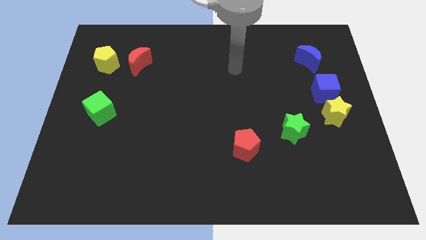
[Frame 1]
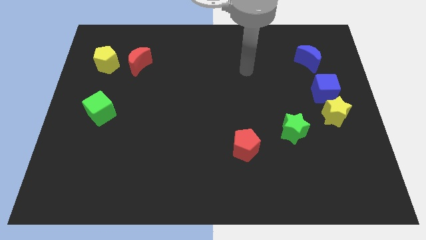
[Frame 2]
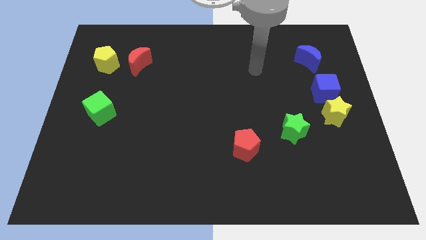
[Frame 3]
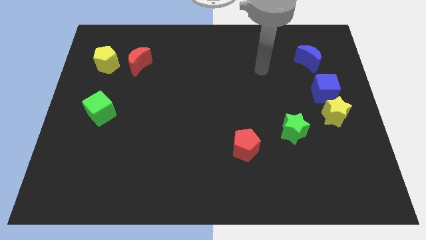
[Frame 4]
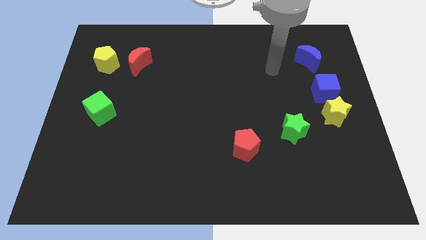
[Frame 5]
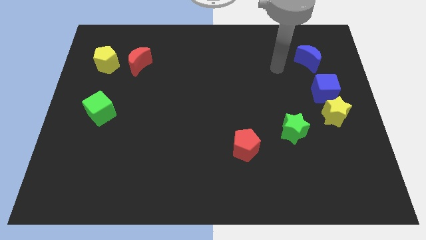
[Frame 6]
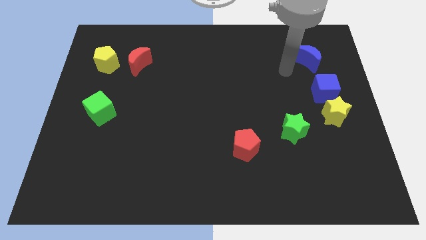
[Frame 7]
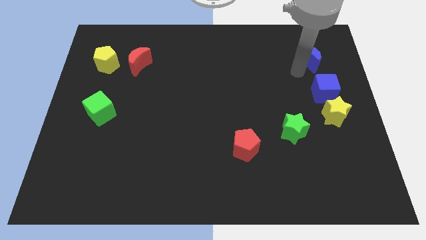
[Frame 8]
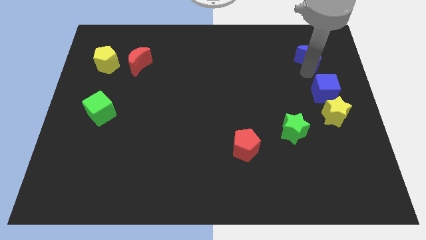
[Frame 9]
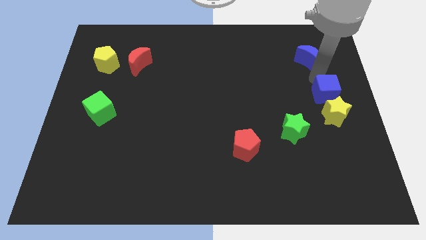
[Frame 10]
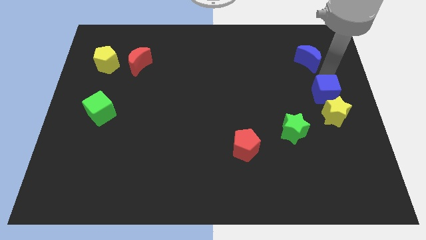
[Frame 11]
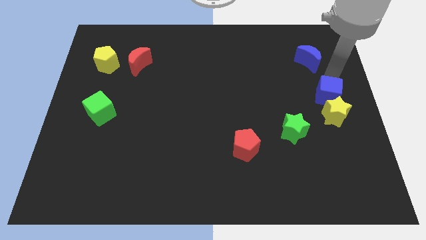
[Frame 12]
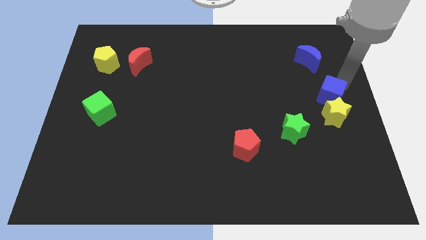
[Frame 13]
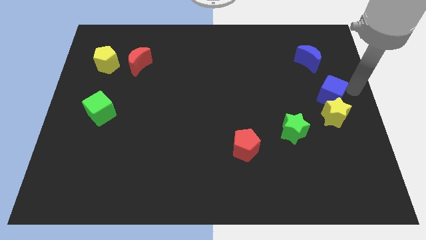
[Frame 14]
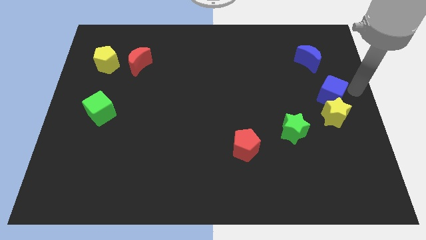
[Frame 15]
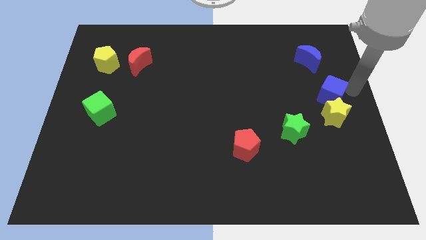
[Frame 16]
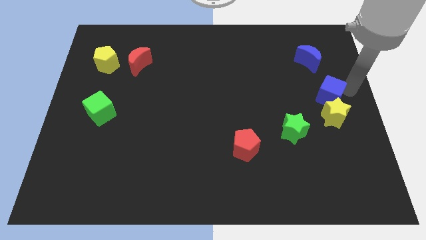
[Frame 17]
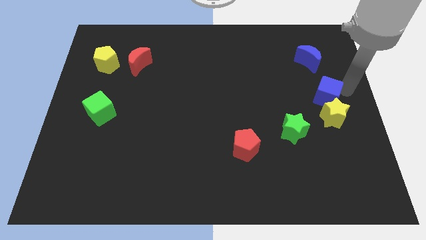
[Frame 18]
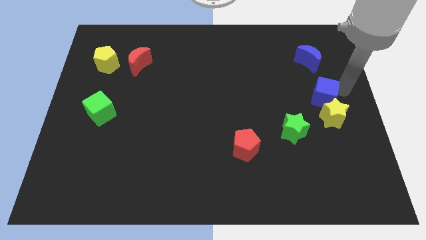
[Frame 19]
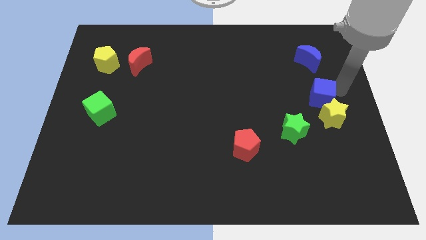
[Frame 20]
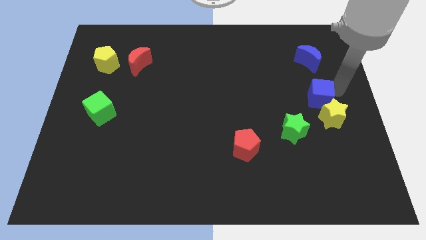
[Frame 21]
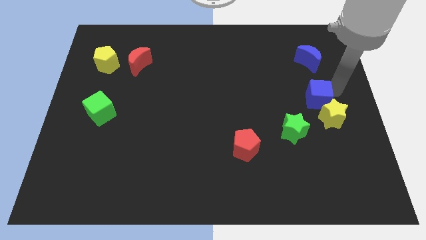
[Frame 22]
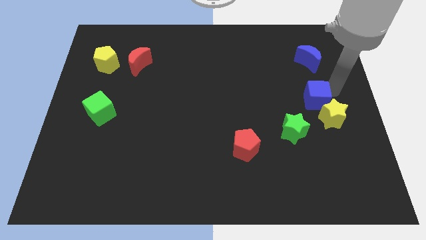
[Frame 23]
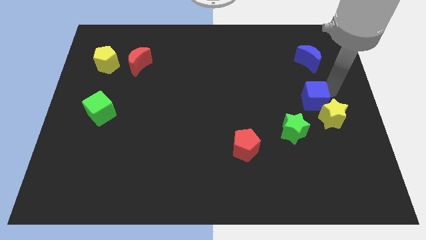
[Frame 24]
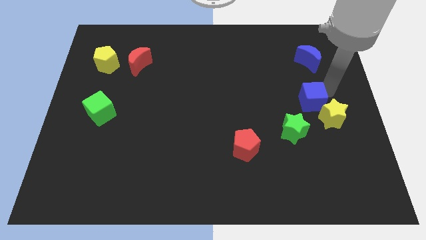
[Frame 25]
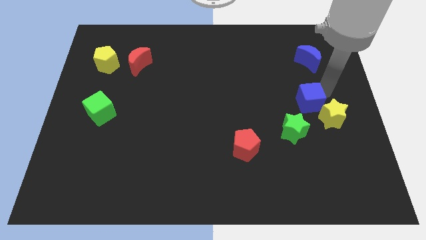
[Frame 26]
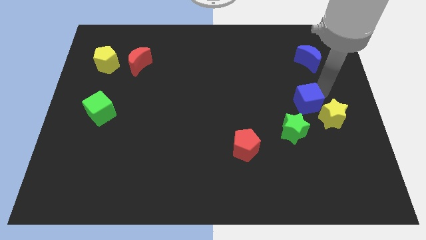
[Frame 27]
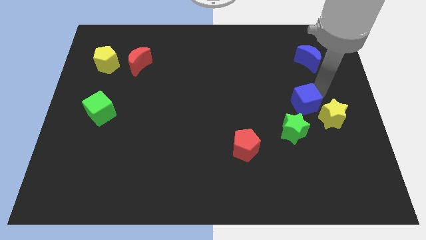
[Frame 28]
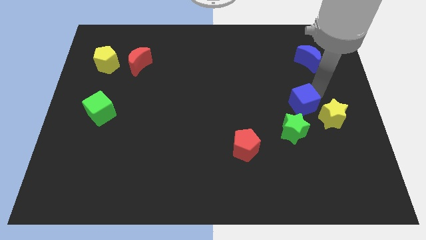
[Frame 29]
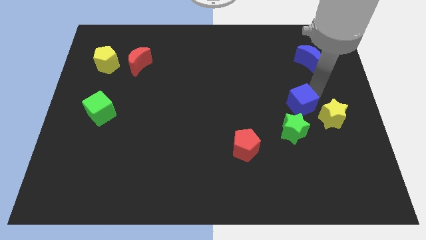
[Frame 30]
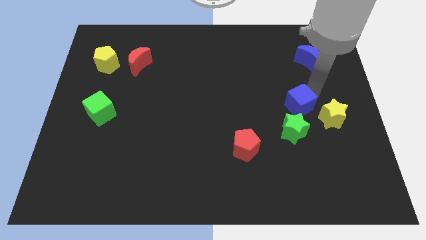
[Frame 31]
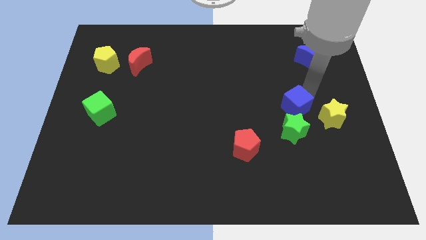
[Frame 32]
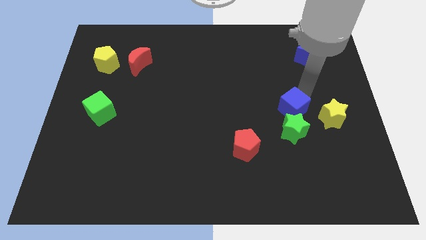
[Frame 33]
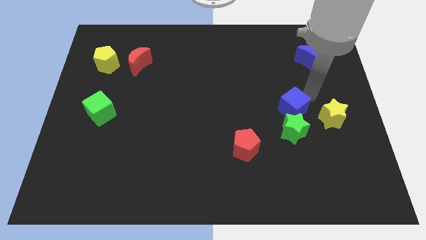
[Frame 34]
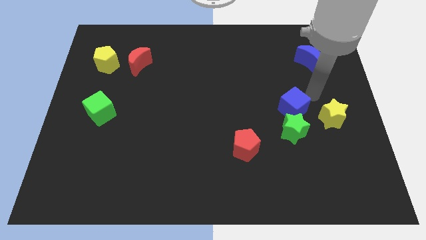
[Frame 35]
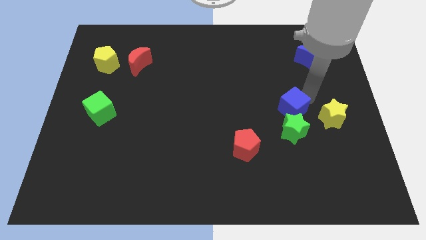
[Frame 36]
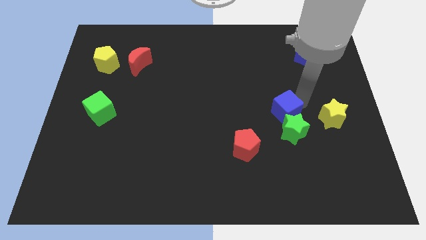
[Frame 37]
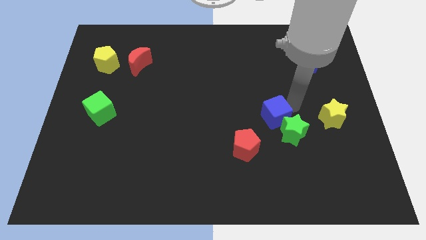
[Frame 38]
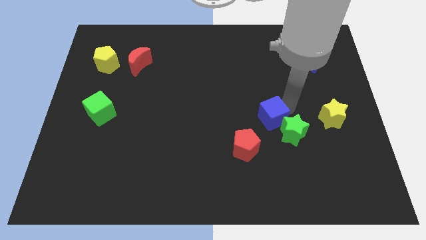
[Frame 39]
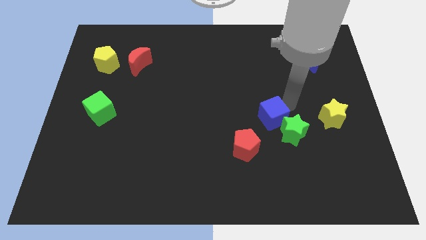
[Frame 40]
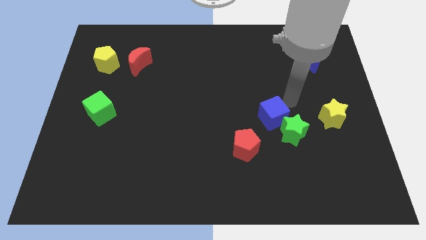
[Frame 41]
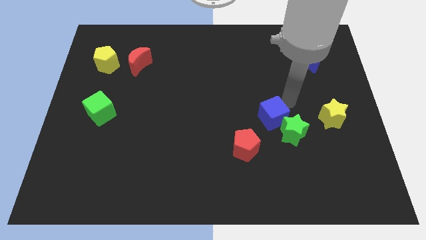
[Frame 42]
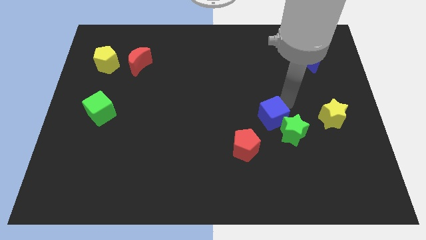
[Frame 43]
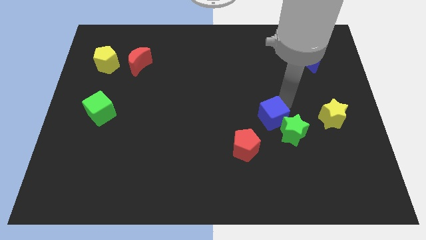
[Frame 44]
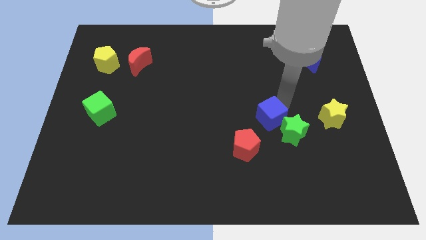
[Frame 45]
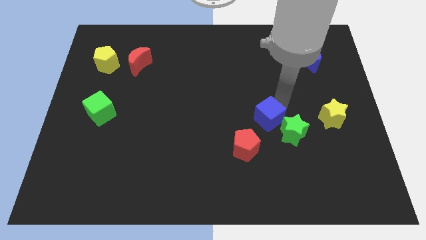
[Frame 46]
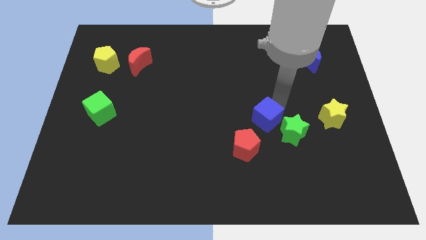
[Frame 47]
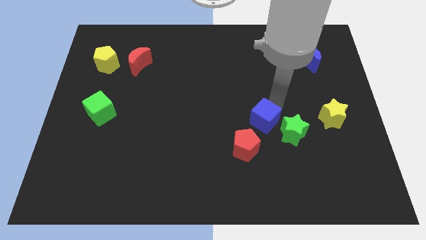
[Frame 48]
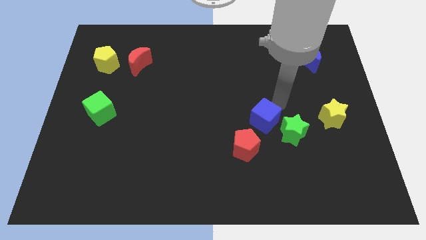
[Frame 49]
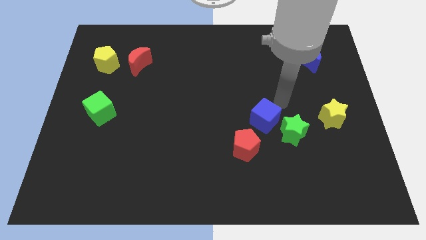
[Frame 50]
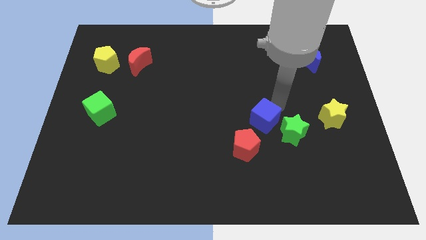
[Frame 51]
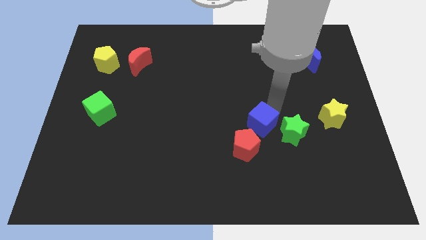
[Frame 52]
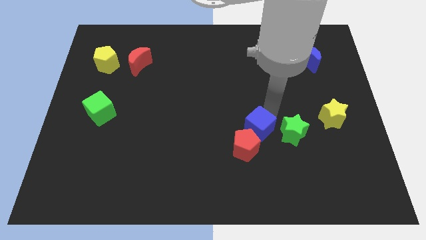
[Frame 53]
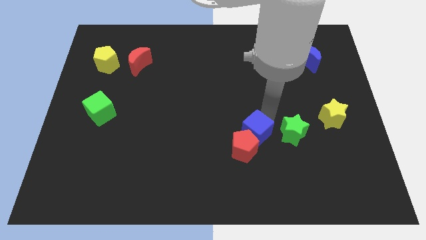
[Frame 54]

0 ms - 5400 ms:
push the blue cube next to the red pentagon

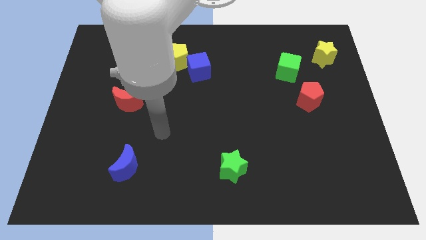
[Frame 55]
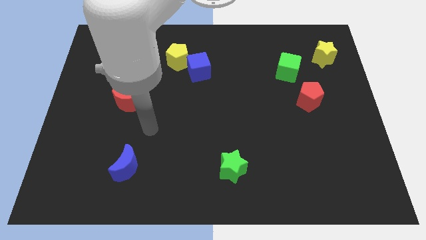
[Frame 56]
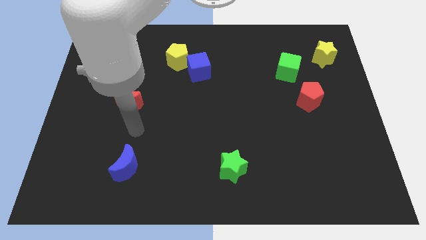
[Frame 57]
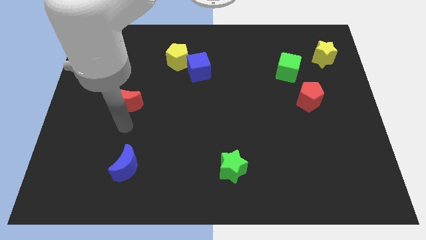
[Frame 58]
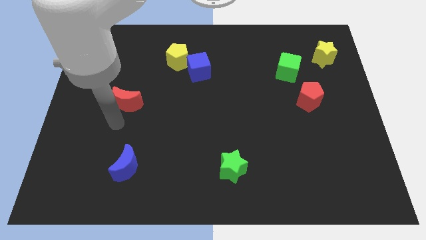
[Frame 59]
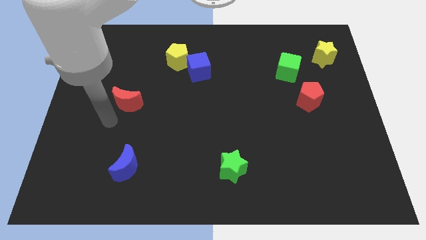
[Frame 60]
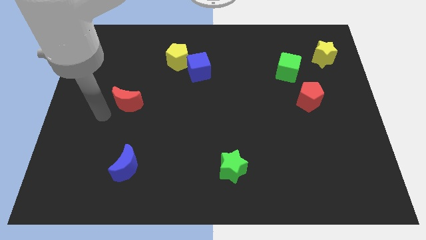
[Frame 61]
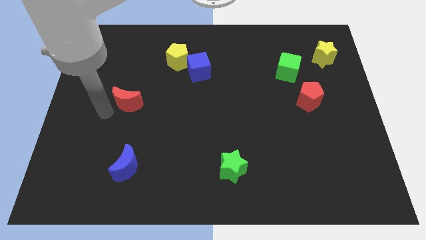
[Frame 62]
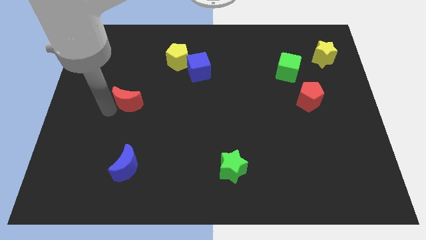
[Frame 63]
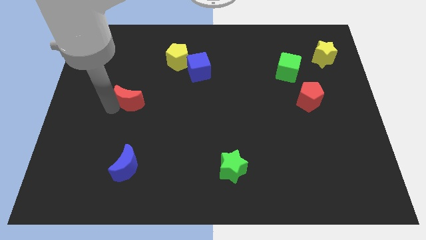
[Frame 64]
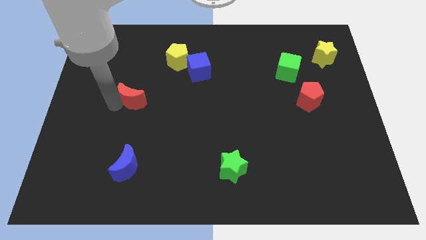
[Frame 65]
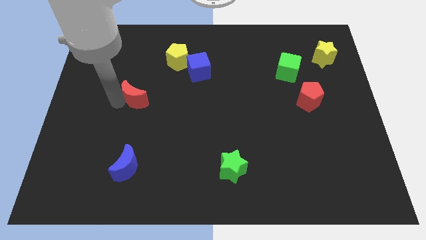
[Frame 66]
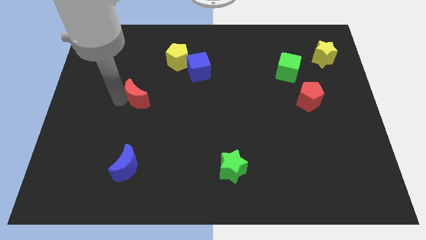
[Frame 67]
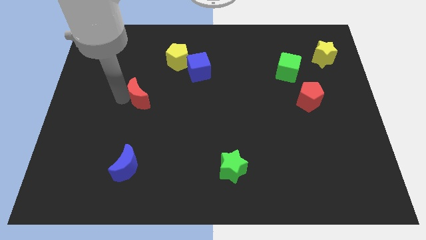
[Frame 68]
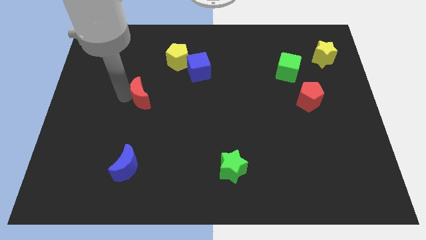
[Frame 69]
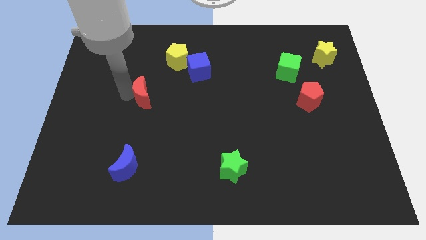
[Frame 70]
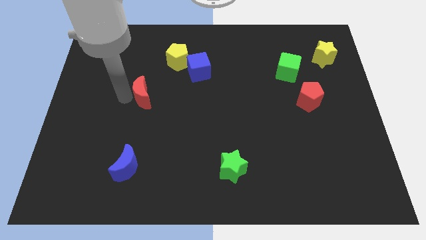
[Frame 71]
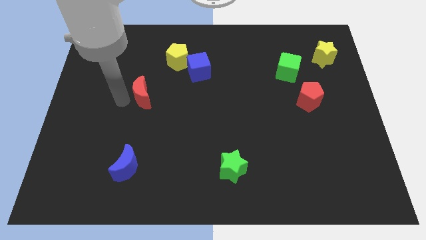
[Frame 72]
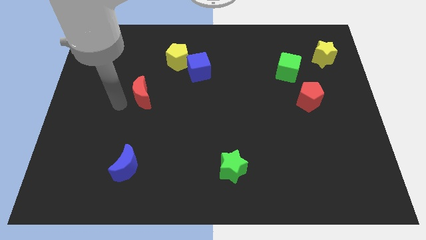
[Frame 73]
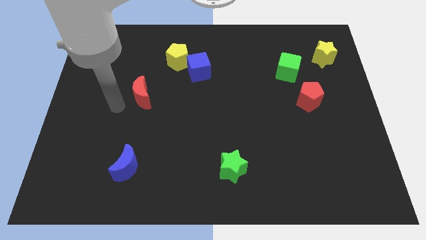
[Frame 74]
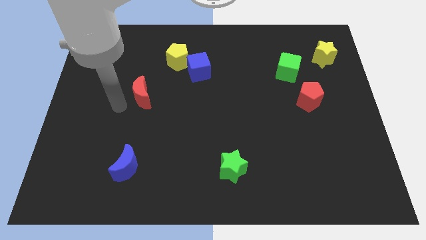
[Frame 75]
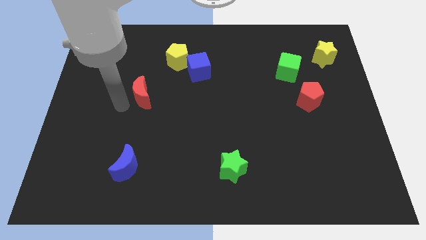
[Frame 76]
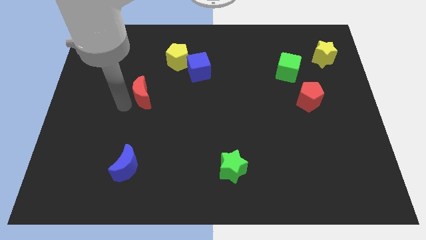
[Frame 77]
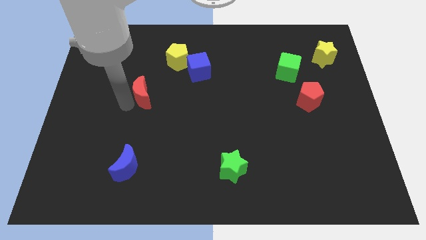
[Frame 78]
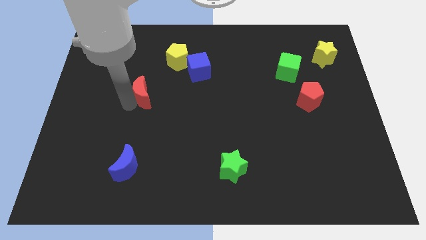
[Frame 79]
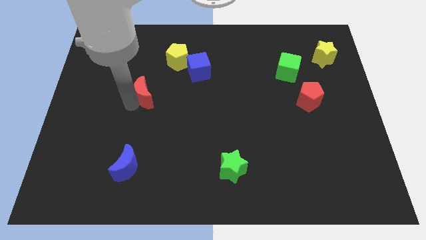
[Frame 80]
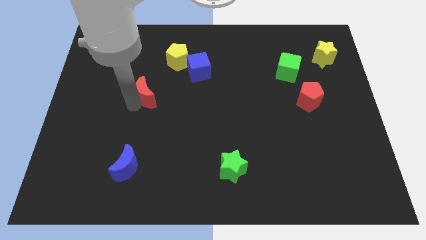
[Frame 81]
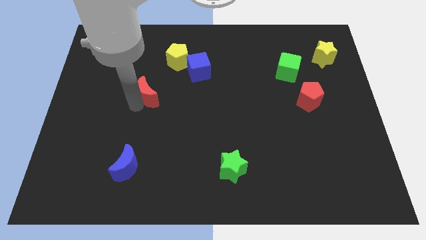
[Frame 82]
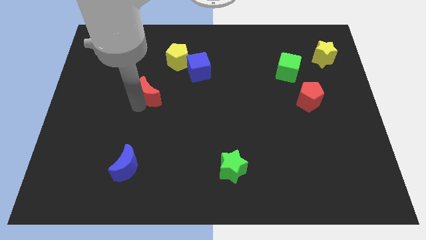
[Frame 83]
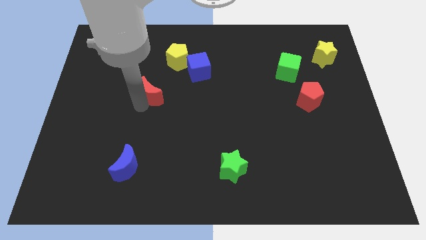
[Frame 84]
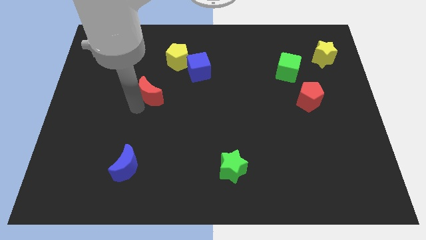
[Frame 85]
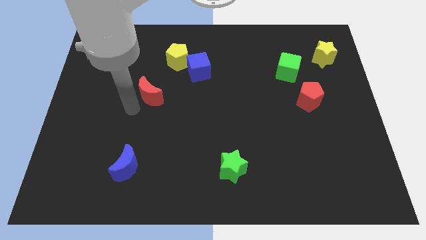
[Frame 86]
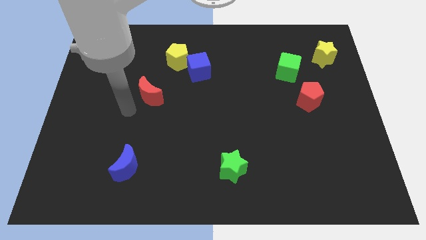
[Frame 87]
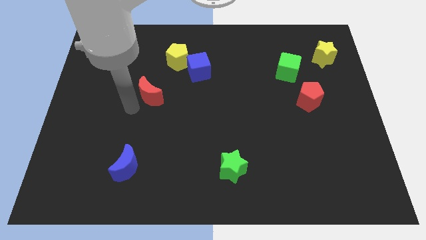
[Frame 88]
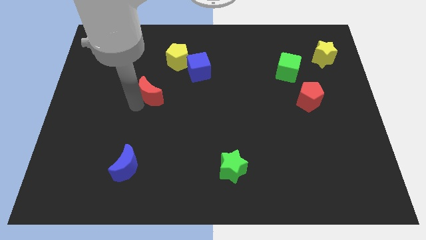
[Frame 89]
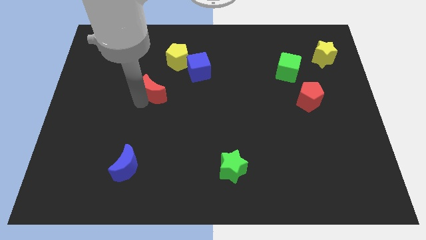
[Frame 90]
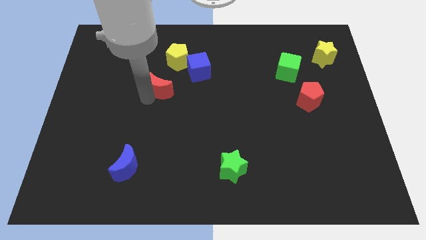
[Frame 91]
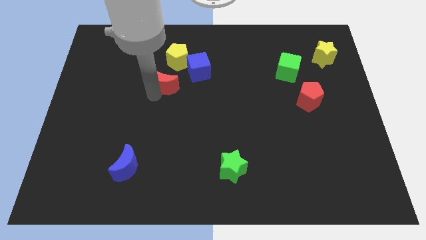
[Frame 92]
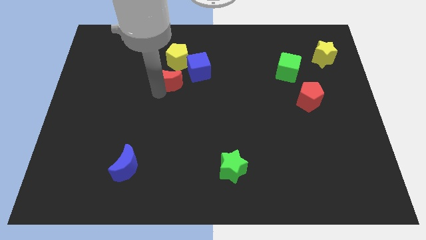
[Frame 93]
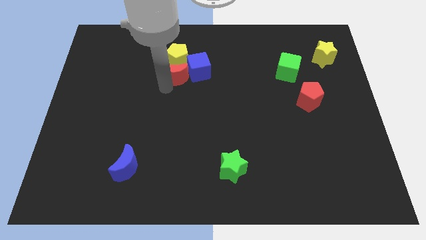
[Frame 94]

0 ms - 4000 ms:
slide the red moon towards the yellow pentagon
